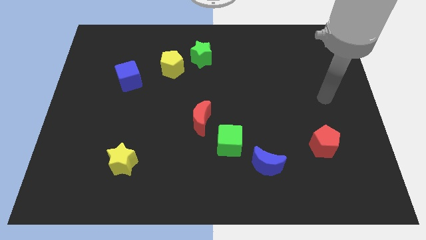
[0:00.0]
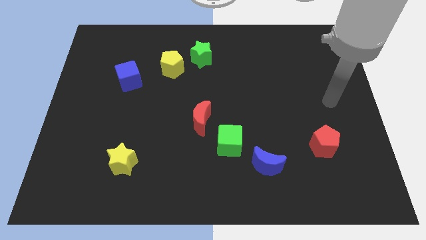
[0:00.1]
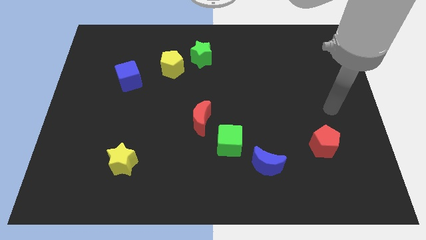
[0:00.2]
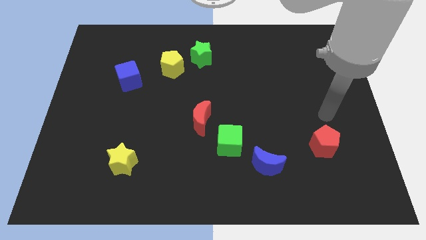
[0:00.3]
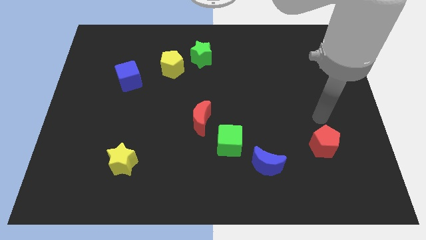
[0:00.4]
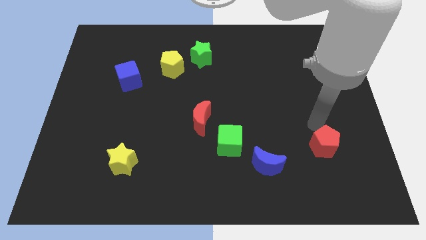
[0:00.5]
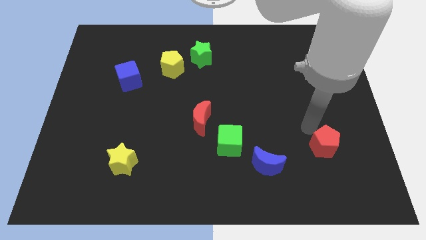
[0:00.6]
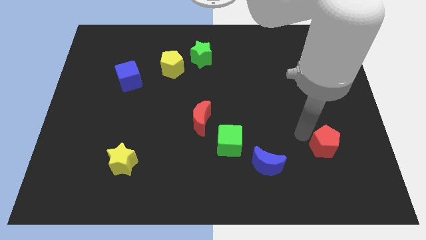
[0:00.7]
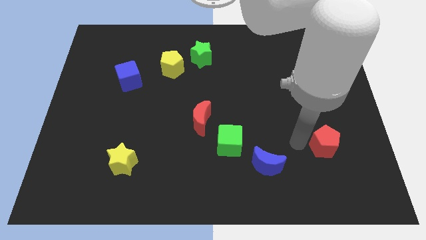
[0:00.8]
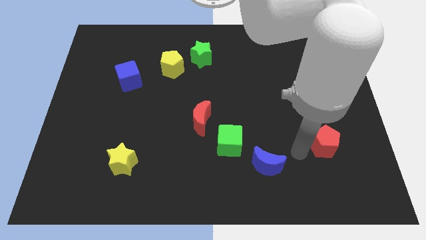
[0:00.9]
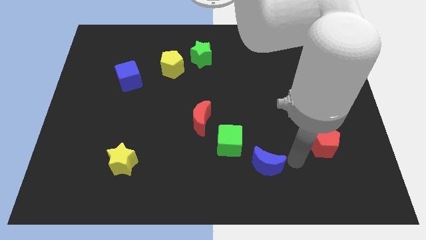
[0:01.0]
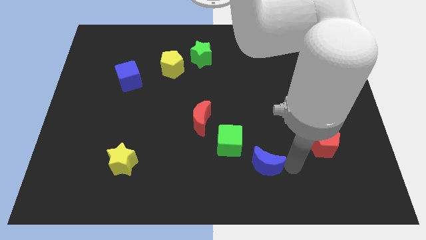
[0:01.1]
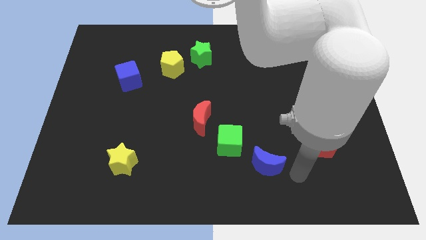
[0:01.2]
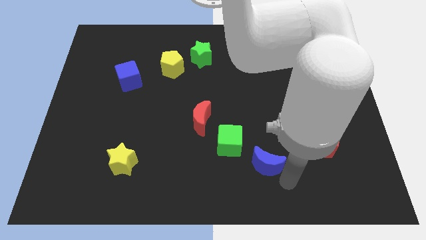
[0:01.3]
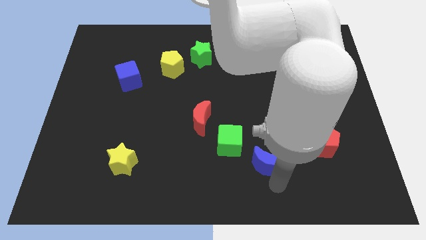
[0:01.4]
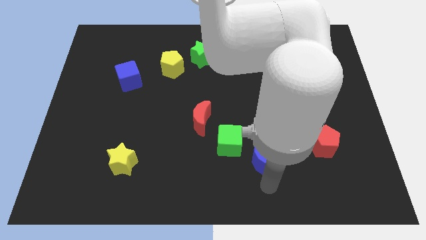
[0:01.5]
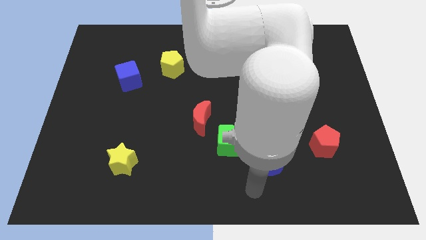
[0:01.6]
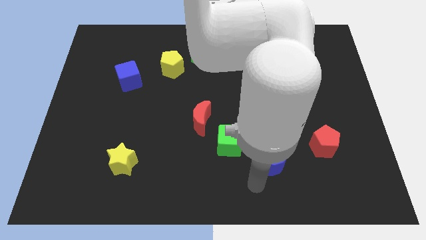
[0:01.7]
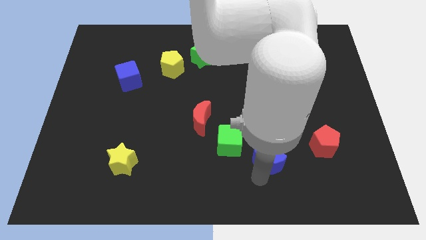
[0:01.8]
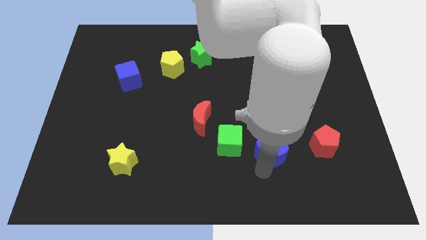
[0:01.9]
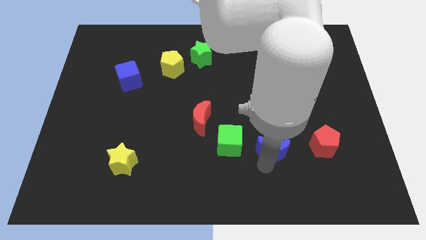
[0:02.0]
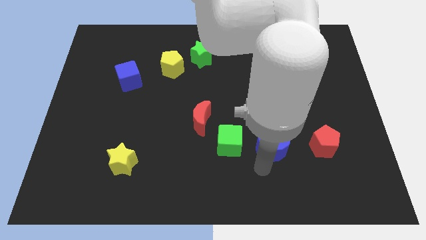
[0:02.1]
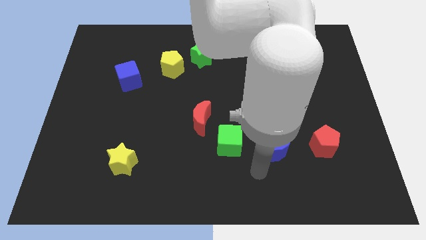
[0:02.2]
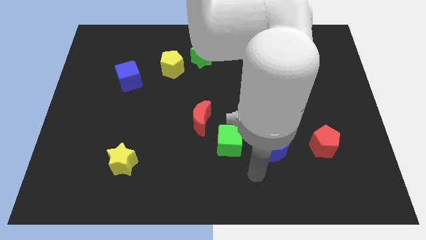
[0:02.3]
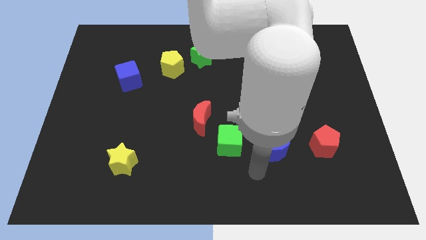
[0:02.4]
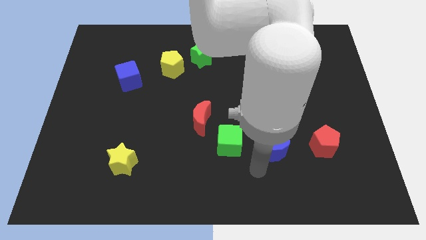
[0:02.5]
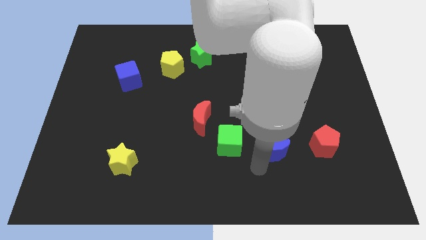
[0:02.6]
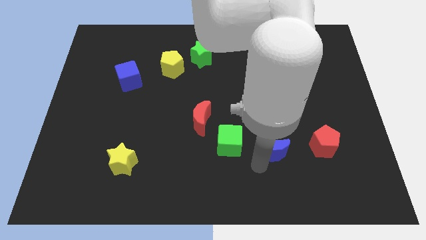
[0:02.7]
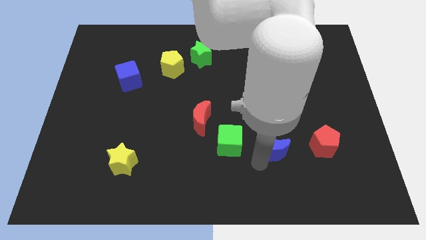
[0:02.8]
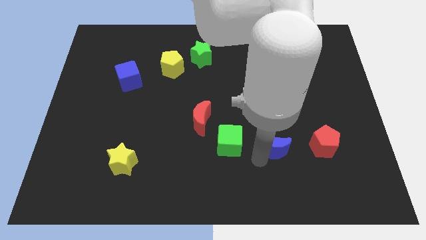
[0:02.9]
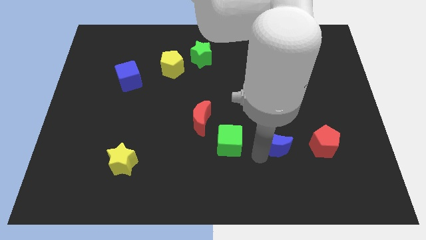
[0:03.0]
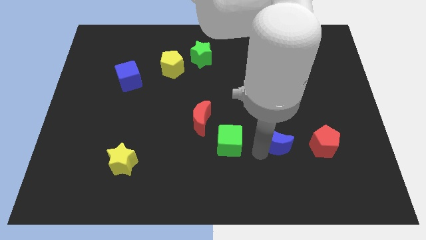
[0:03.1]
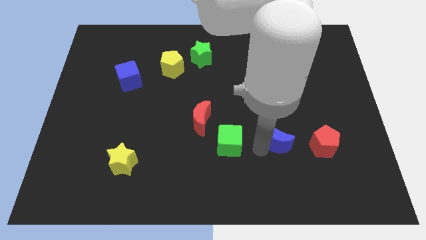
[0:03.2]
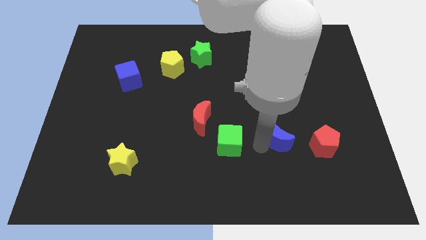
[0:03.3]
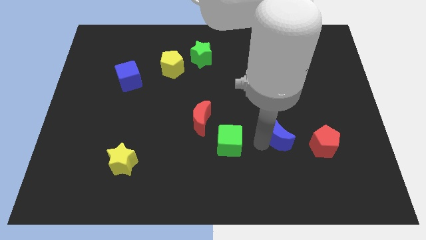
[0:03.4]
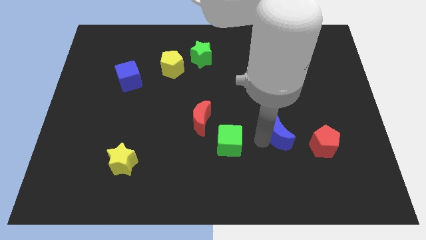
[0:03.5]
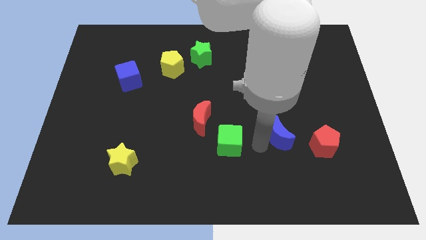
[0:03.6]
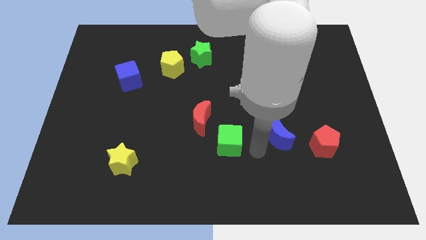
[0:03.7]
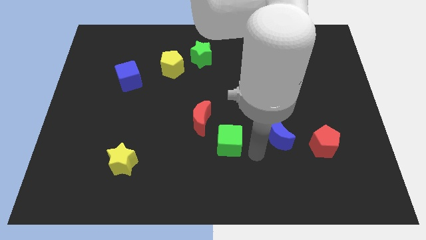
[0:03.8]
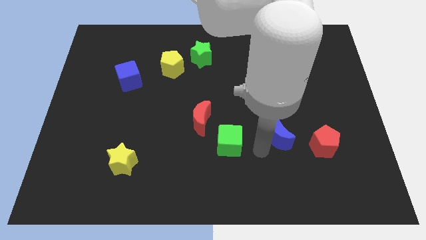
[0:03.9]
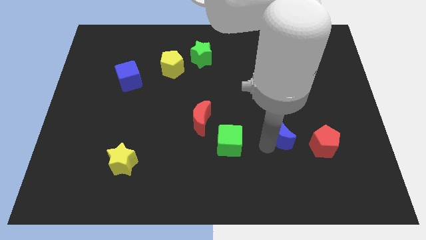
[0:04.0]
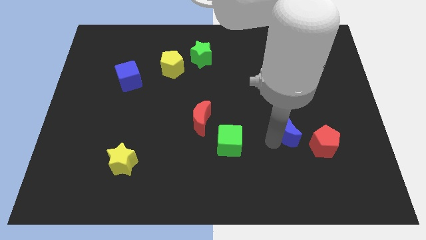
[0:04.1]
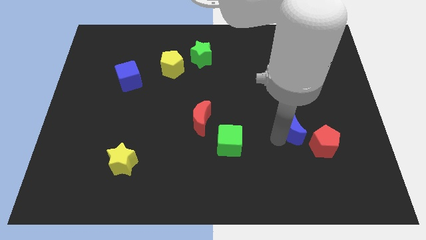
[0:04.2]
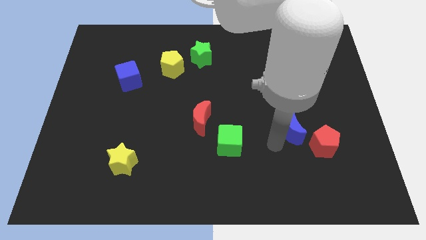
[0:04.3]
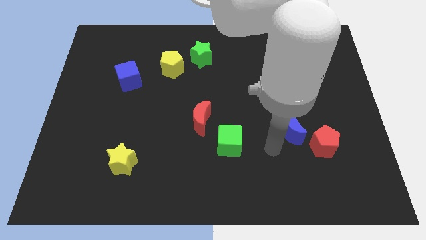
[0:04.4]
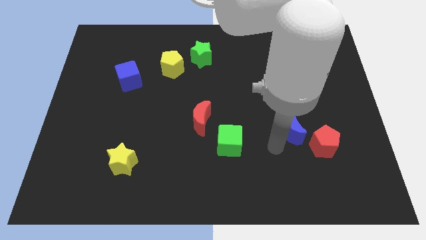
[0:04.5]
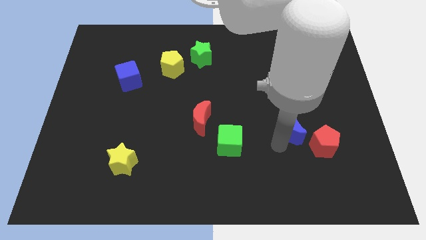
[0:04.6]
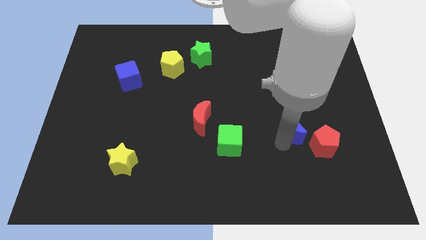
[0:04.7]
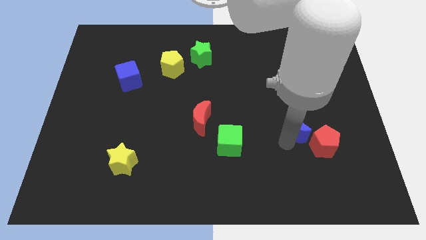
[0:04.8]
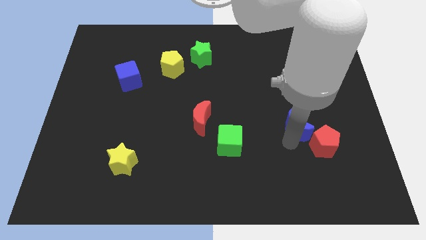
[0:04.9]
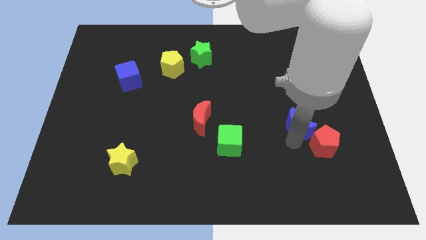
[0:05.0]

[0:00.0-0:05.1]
move the blue moon to the top of the red pentagon

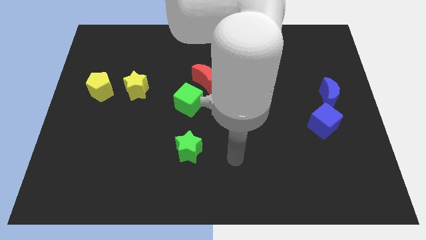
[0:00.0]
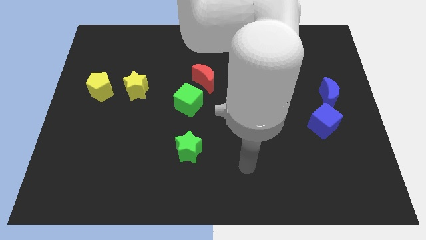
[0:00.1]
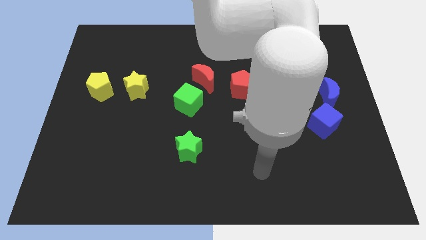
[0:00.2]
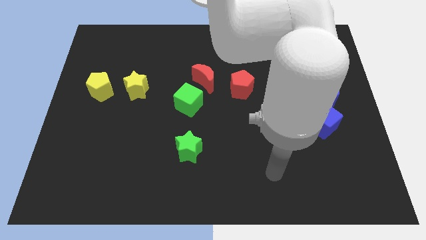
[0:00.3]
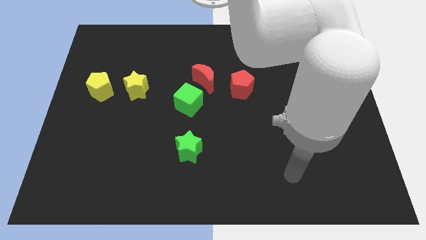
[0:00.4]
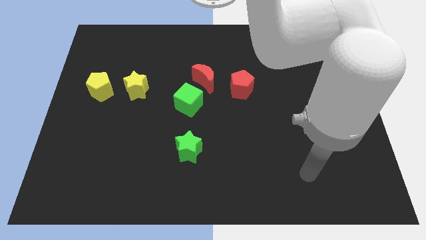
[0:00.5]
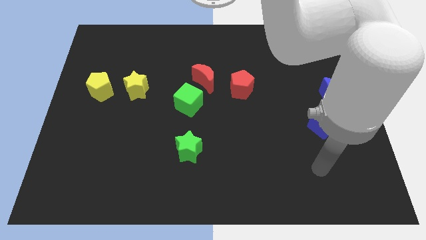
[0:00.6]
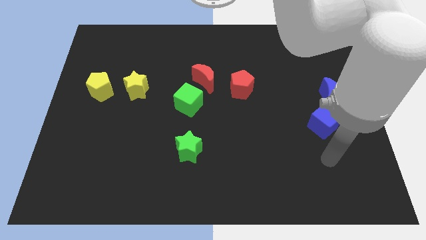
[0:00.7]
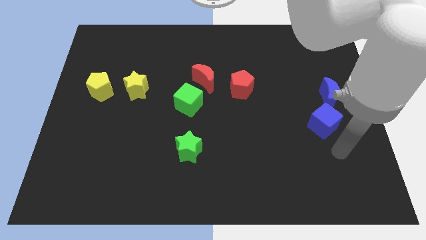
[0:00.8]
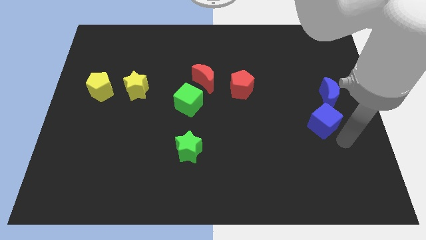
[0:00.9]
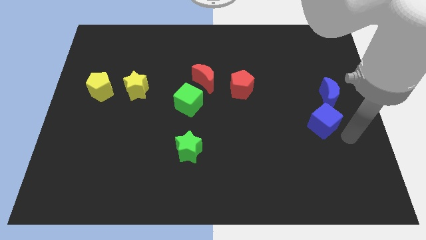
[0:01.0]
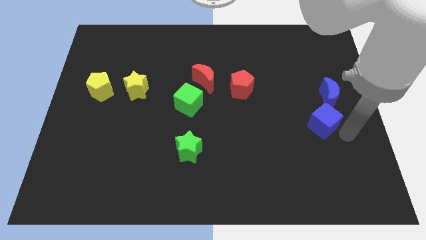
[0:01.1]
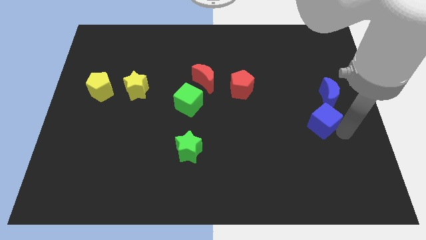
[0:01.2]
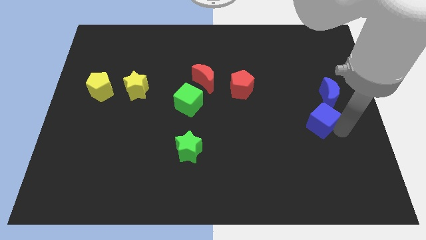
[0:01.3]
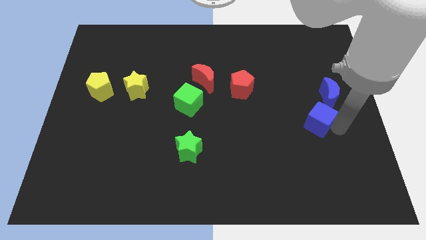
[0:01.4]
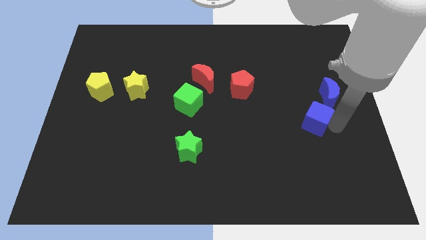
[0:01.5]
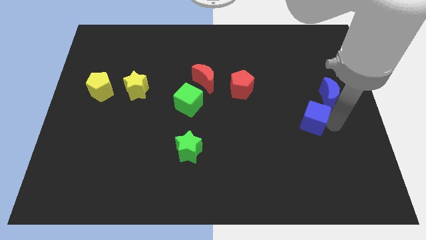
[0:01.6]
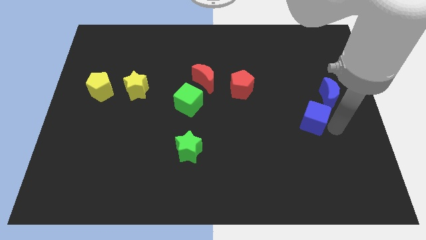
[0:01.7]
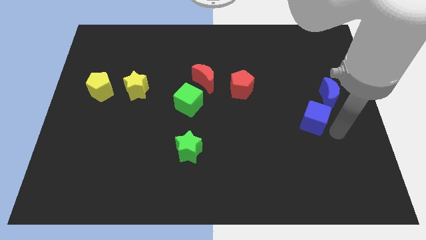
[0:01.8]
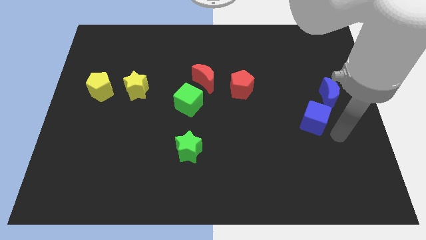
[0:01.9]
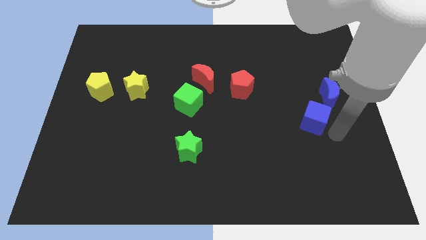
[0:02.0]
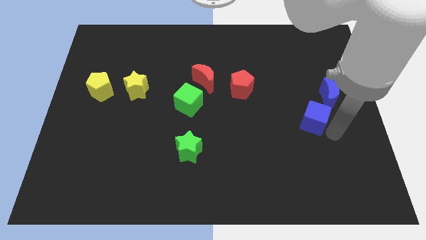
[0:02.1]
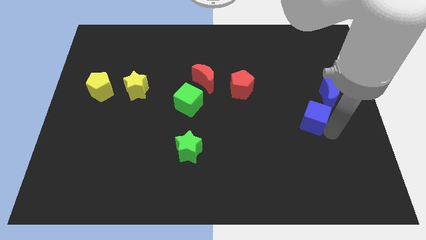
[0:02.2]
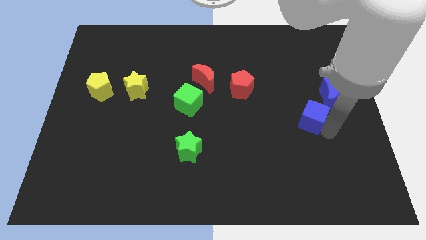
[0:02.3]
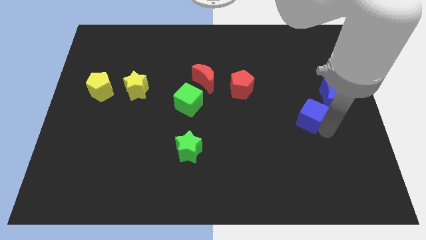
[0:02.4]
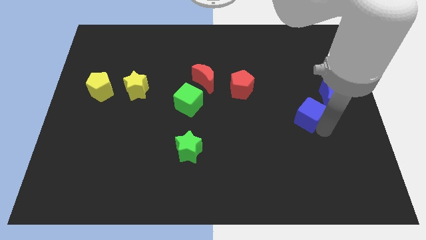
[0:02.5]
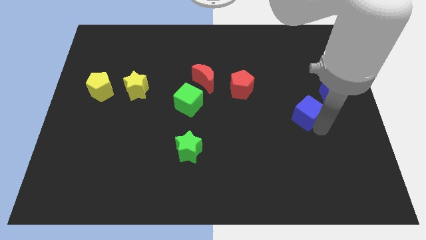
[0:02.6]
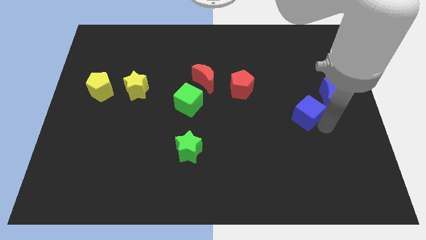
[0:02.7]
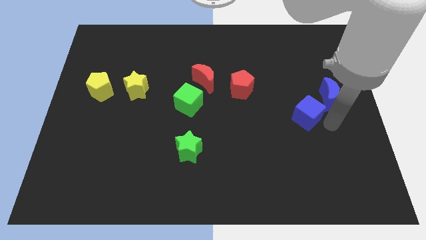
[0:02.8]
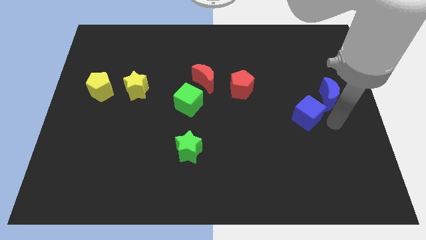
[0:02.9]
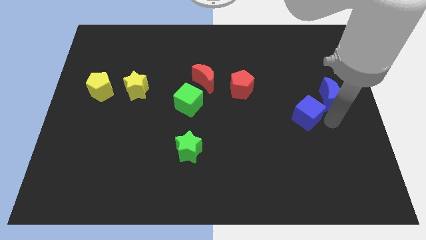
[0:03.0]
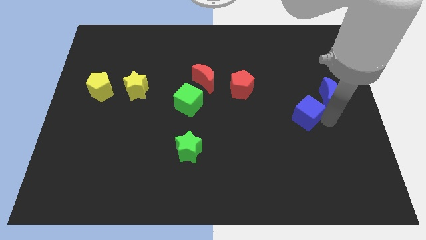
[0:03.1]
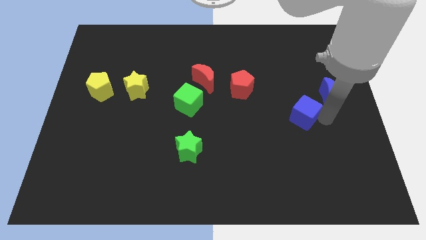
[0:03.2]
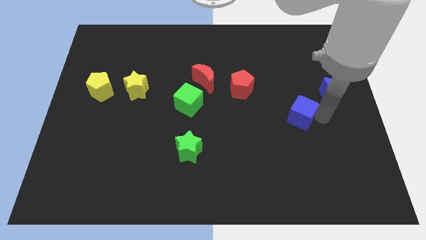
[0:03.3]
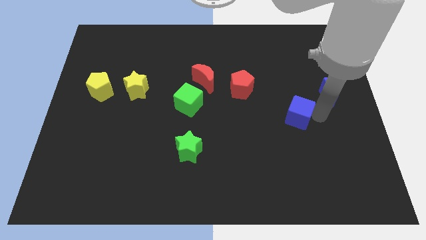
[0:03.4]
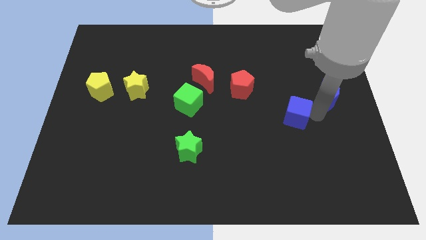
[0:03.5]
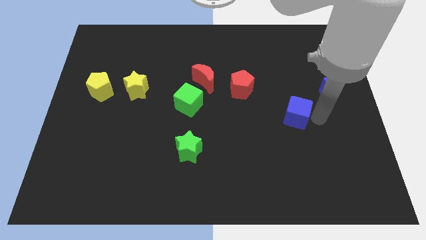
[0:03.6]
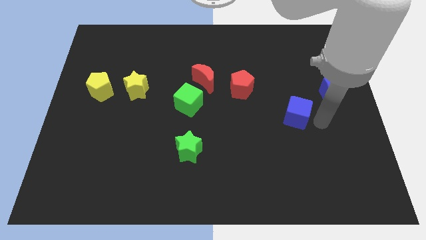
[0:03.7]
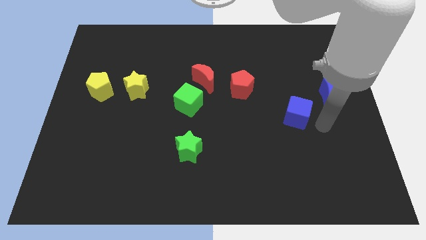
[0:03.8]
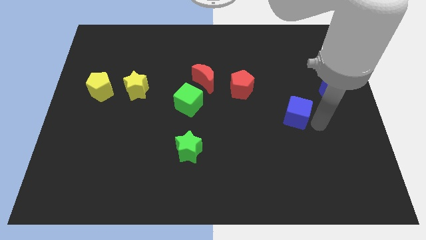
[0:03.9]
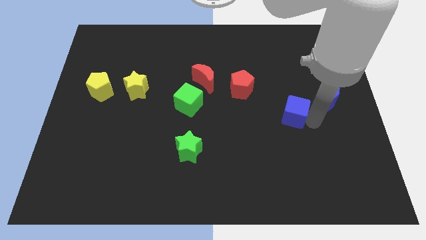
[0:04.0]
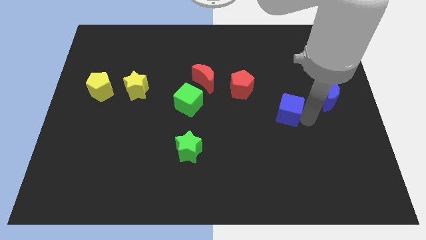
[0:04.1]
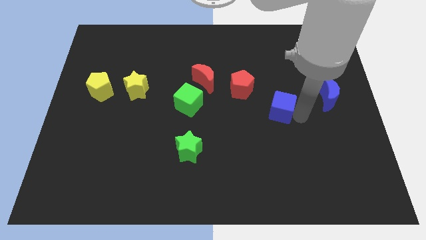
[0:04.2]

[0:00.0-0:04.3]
push the blue cube to the bottom right of the red pentagon
